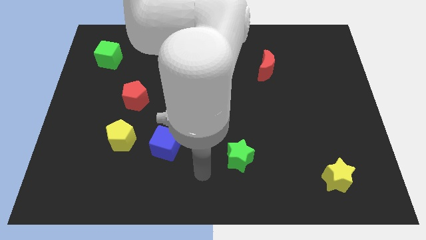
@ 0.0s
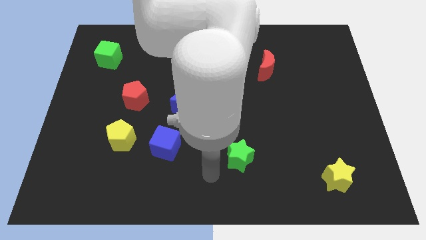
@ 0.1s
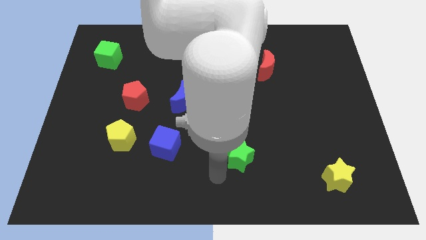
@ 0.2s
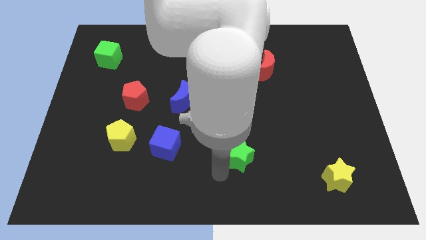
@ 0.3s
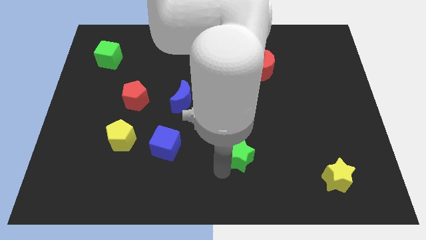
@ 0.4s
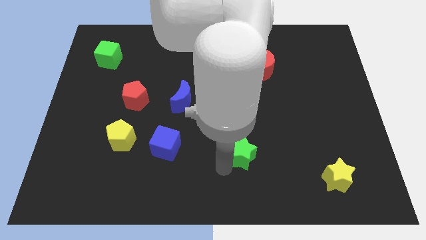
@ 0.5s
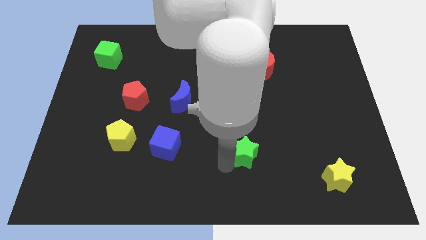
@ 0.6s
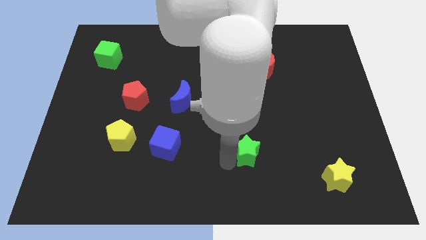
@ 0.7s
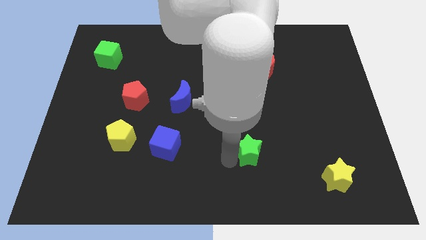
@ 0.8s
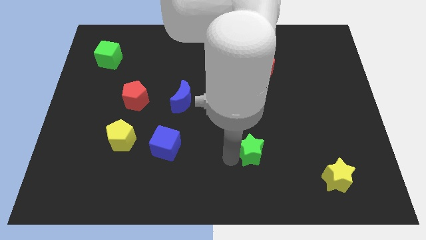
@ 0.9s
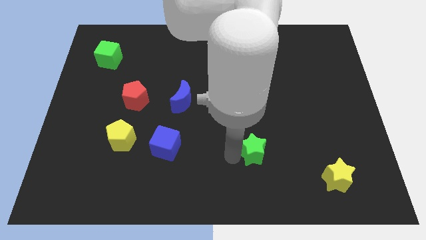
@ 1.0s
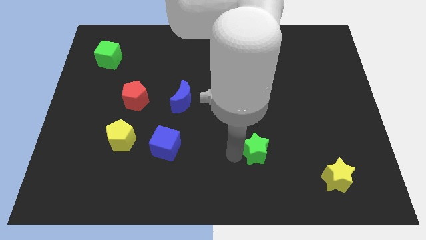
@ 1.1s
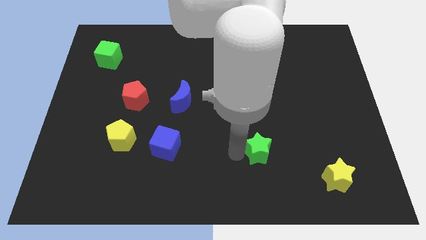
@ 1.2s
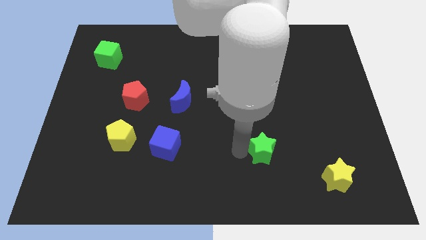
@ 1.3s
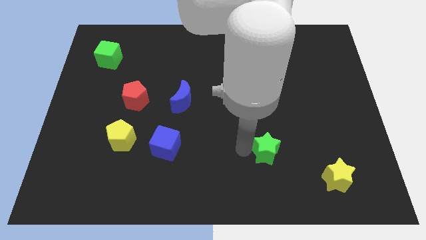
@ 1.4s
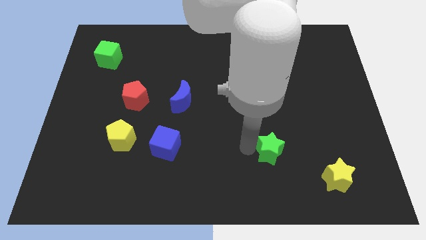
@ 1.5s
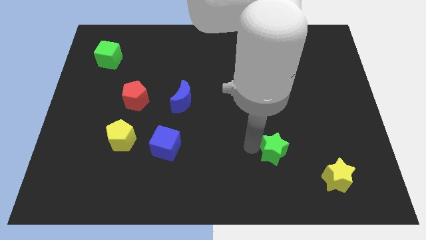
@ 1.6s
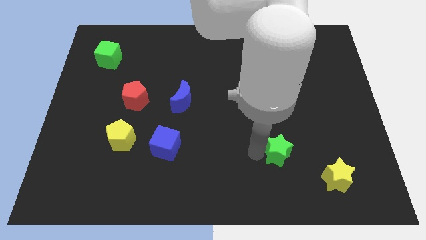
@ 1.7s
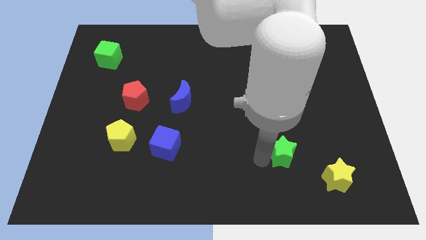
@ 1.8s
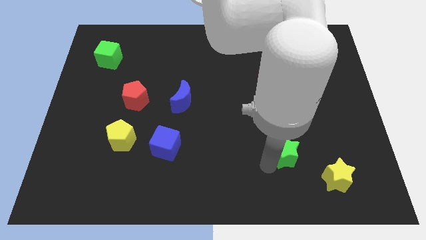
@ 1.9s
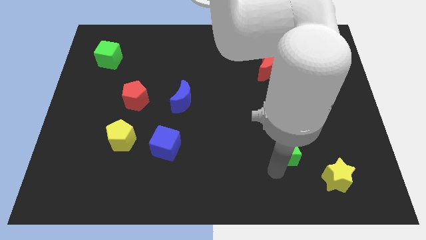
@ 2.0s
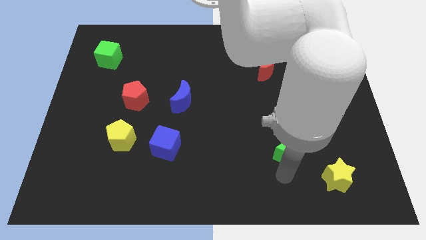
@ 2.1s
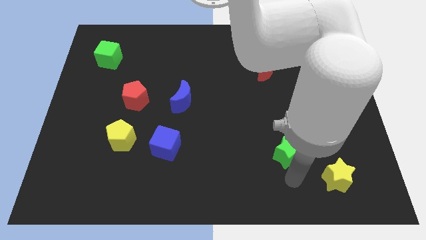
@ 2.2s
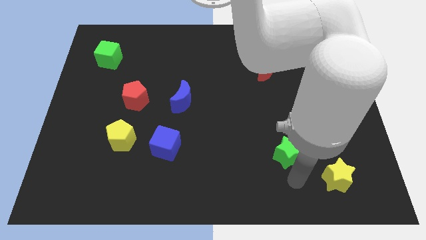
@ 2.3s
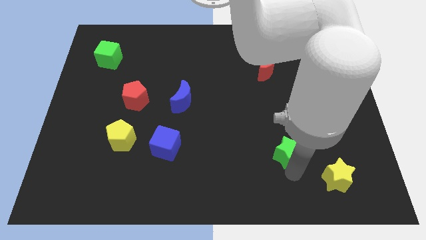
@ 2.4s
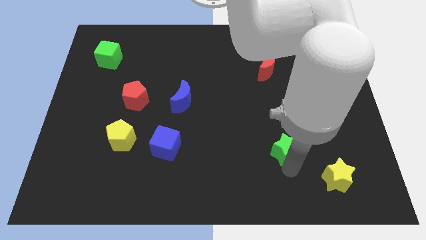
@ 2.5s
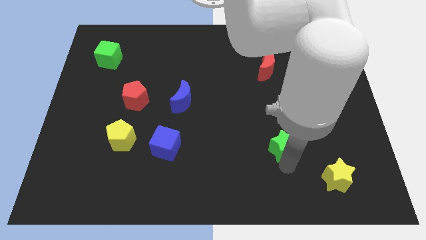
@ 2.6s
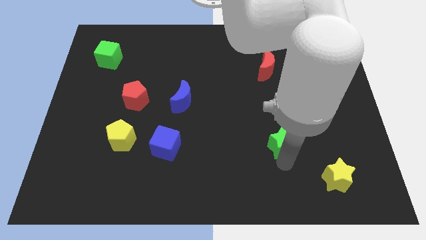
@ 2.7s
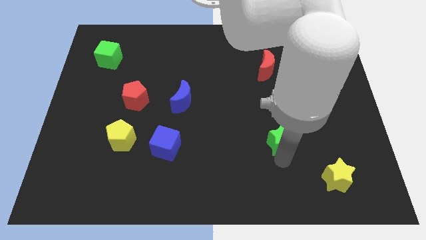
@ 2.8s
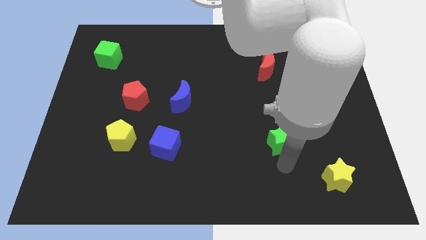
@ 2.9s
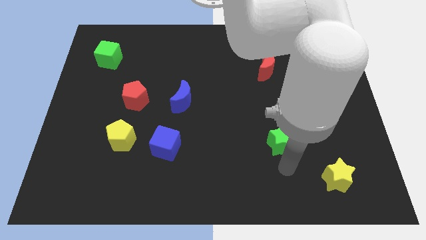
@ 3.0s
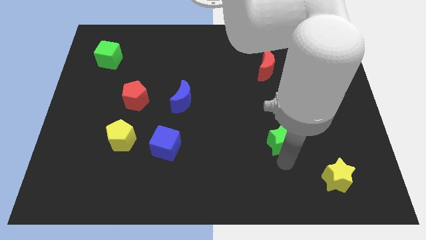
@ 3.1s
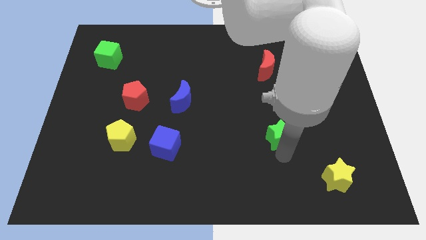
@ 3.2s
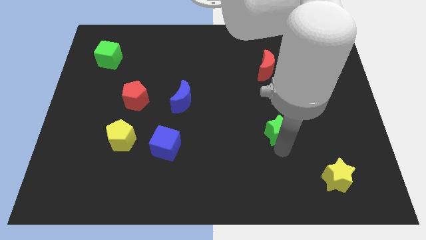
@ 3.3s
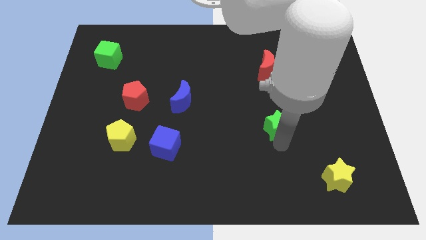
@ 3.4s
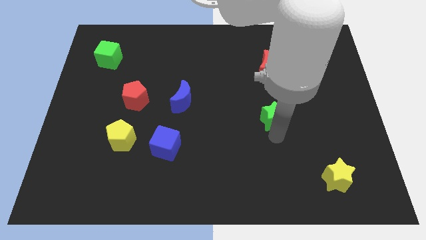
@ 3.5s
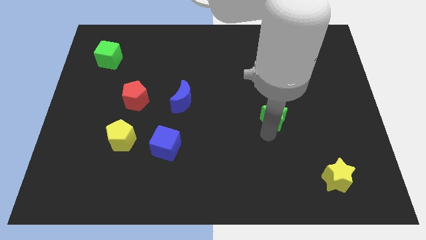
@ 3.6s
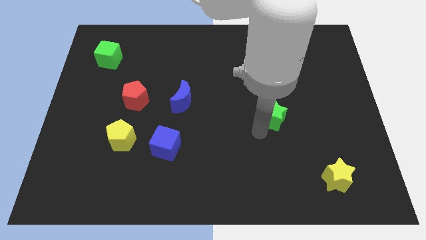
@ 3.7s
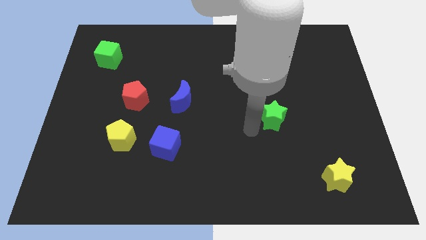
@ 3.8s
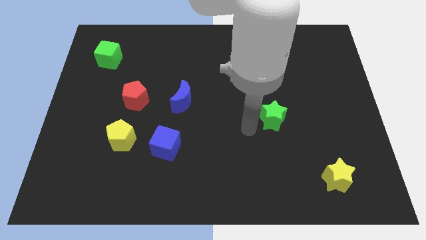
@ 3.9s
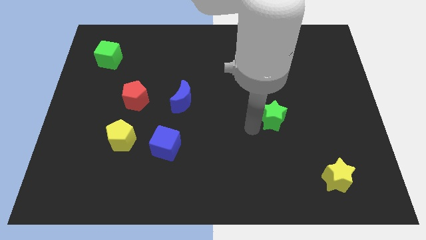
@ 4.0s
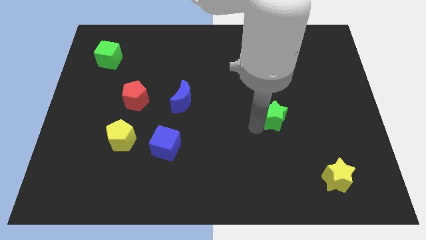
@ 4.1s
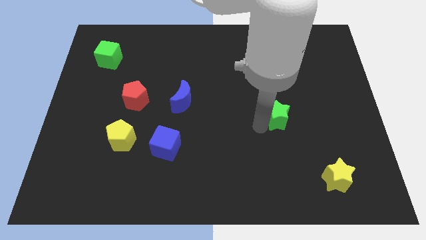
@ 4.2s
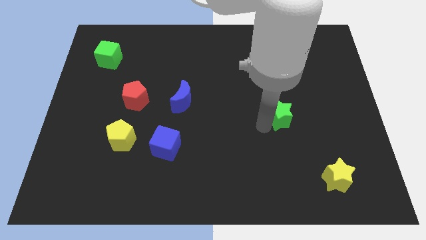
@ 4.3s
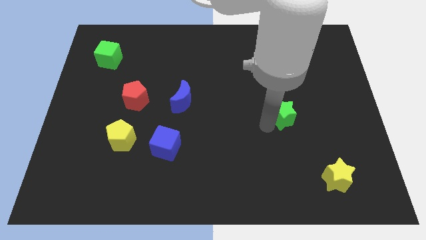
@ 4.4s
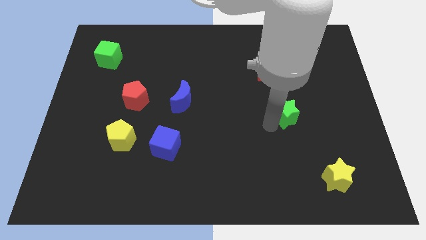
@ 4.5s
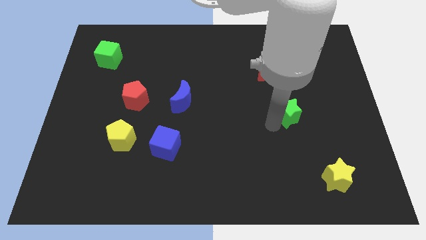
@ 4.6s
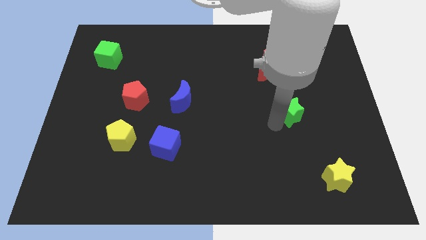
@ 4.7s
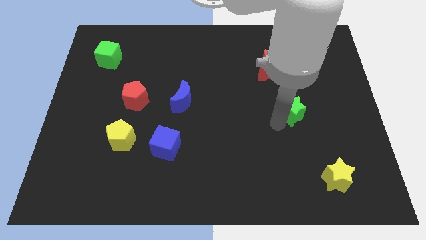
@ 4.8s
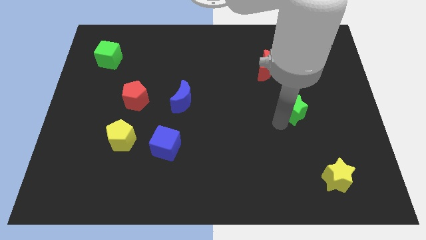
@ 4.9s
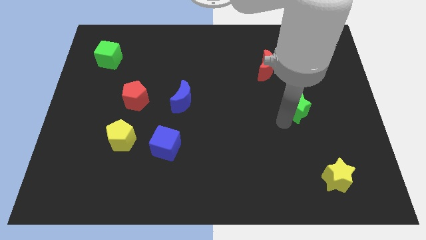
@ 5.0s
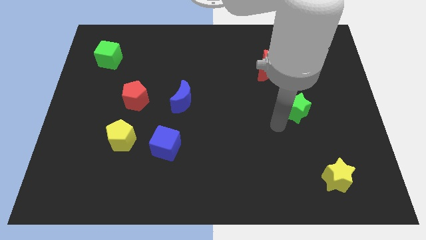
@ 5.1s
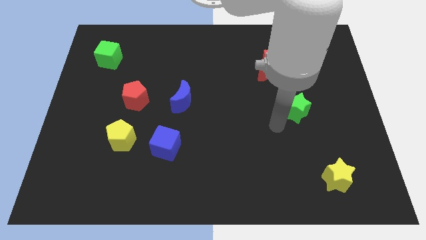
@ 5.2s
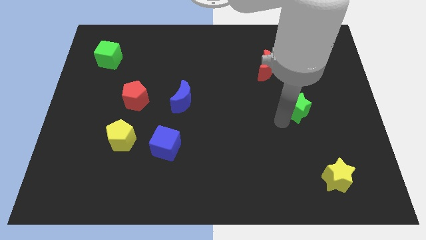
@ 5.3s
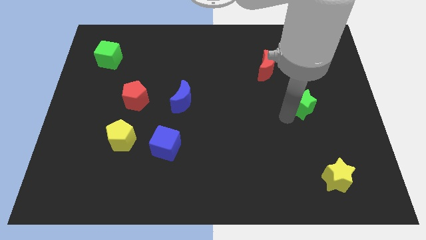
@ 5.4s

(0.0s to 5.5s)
move the green star up and right diagonally

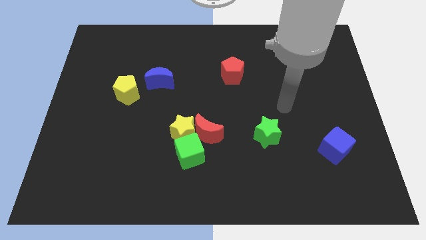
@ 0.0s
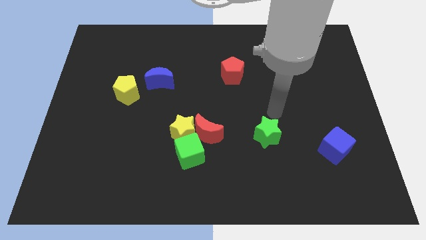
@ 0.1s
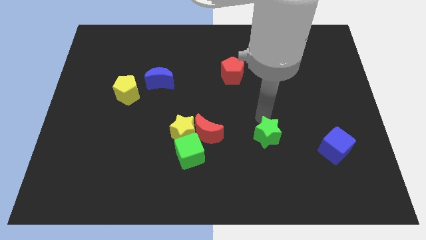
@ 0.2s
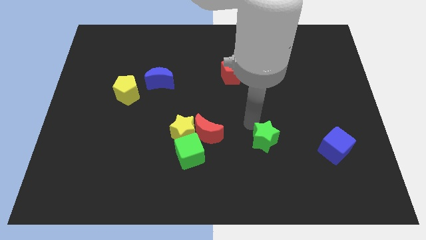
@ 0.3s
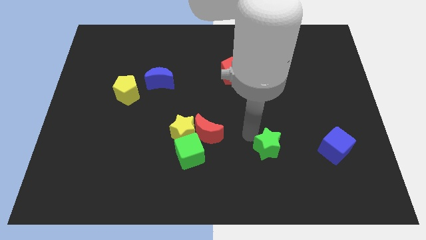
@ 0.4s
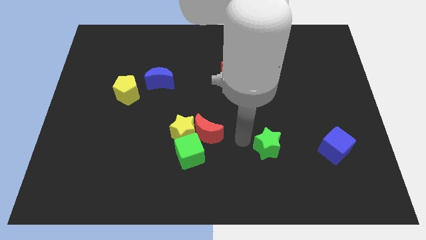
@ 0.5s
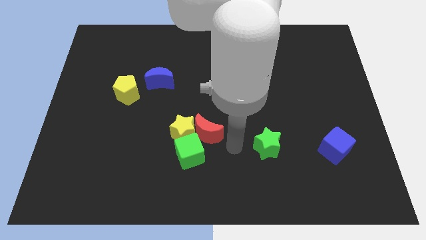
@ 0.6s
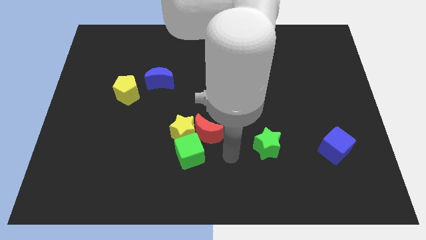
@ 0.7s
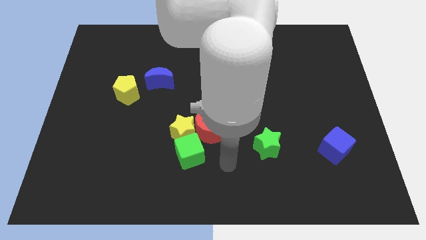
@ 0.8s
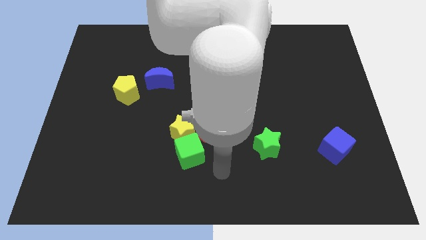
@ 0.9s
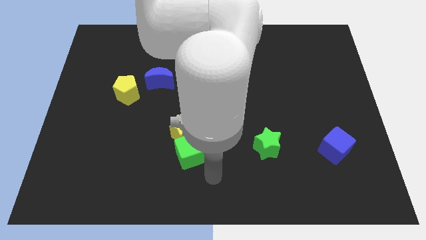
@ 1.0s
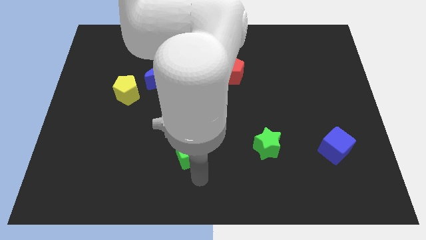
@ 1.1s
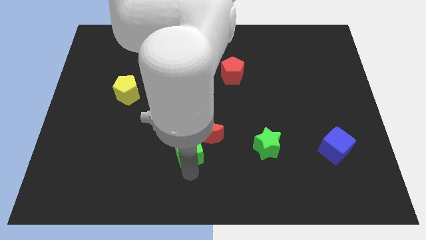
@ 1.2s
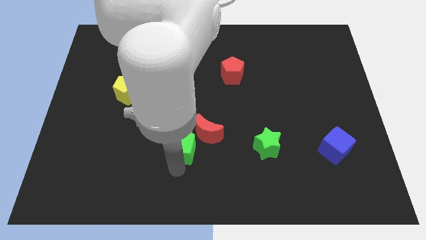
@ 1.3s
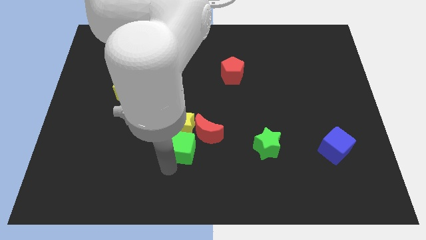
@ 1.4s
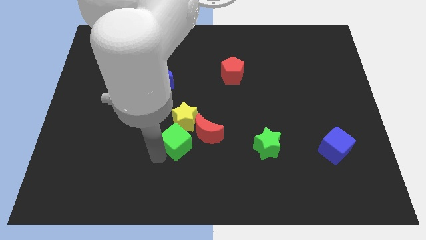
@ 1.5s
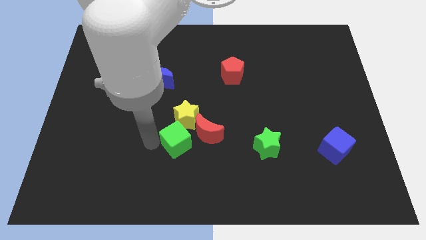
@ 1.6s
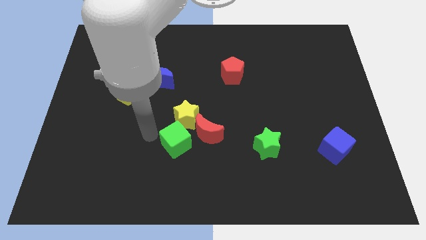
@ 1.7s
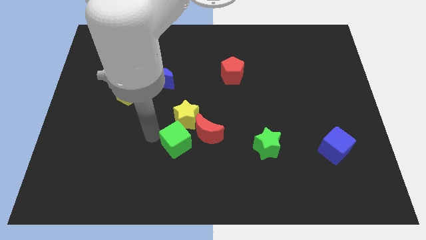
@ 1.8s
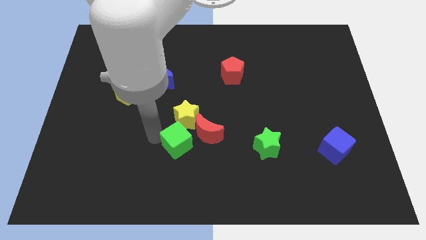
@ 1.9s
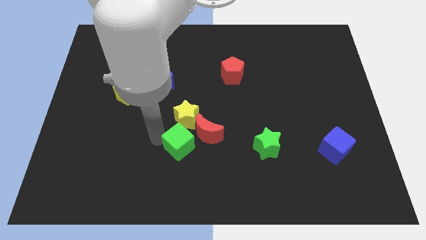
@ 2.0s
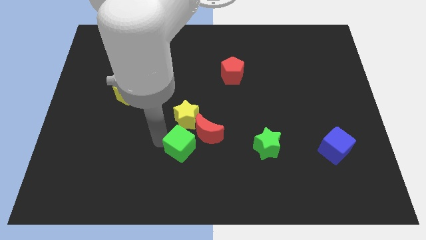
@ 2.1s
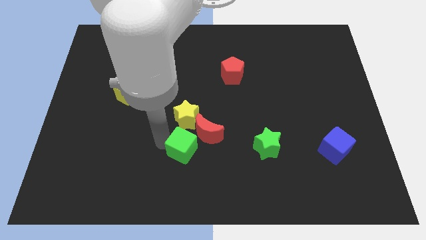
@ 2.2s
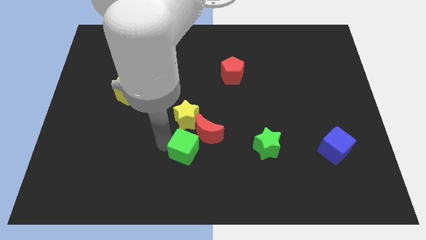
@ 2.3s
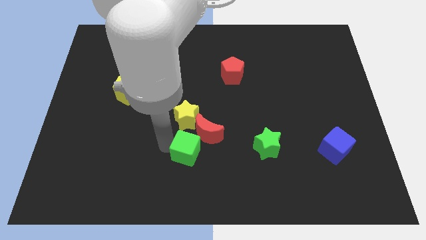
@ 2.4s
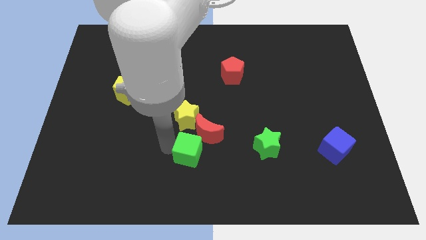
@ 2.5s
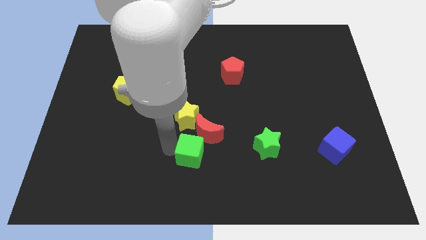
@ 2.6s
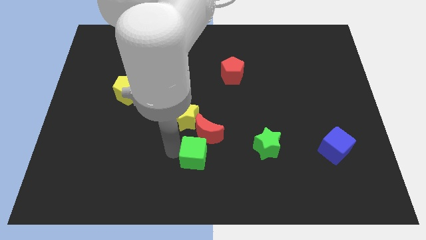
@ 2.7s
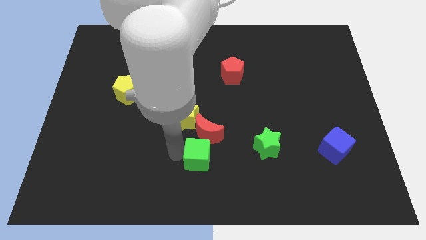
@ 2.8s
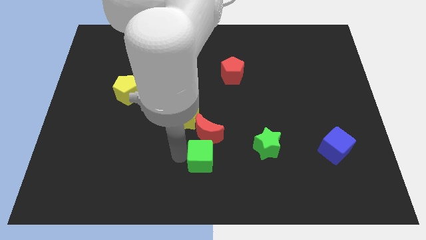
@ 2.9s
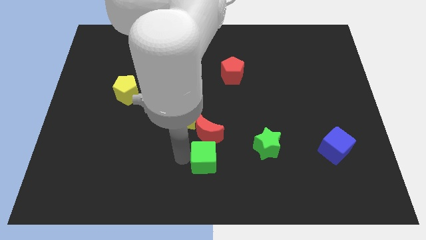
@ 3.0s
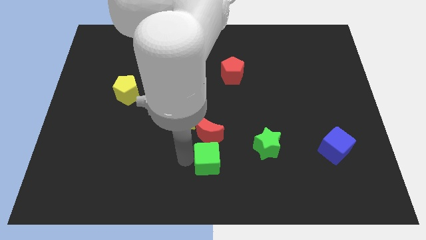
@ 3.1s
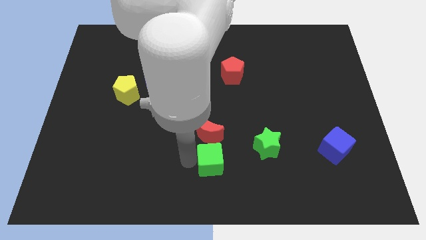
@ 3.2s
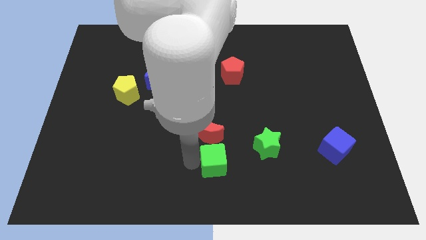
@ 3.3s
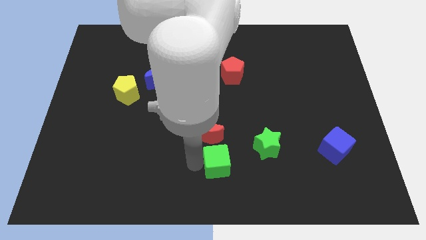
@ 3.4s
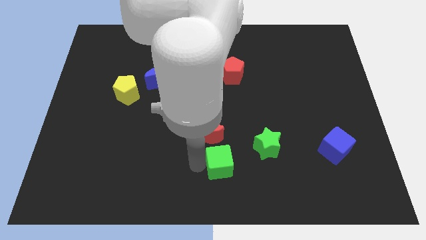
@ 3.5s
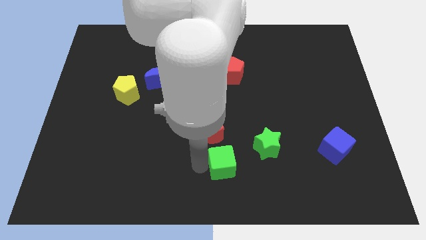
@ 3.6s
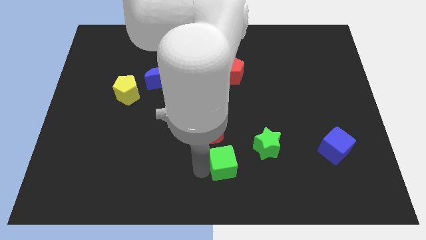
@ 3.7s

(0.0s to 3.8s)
slightly push the green cube right
